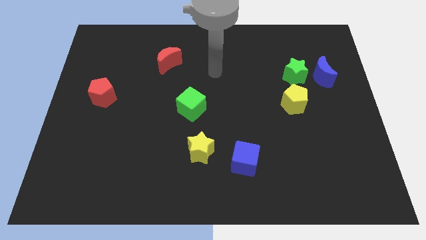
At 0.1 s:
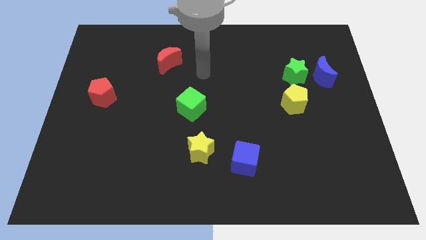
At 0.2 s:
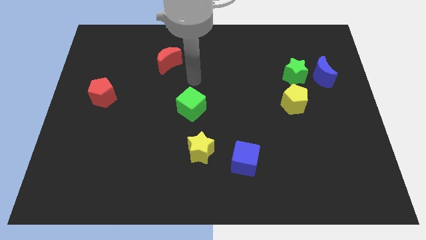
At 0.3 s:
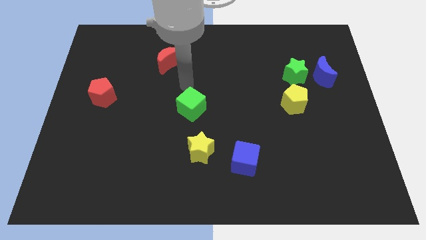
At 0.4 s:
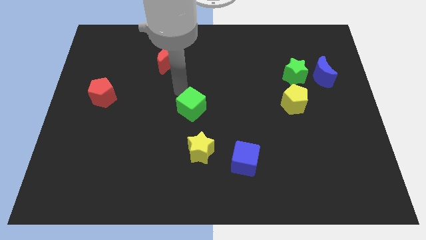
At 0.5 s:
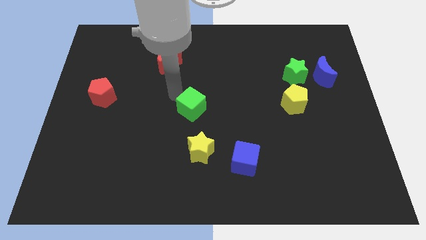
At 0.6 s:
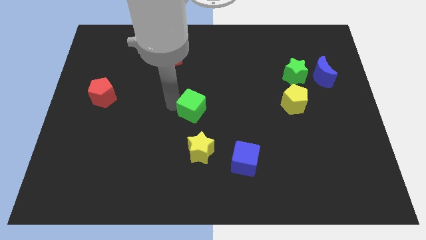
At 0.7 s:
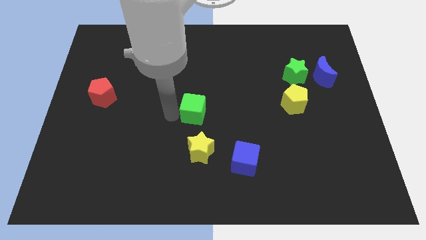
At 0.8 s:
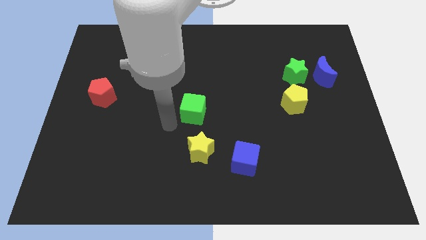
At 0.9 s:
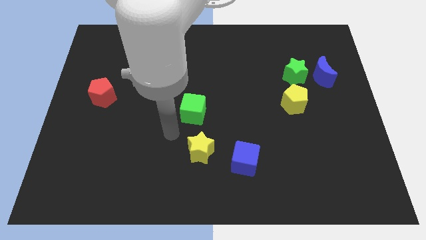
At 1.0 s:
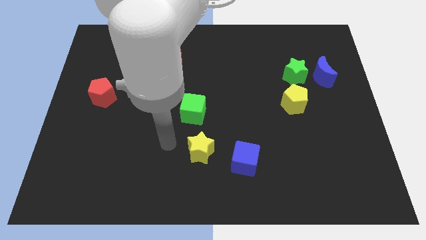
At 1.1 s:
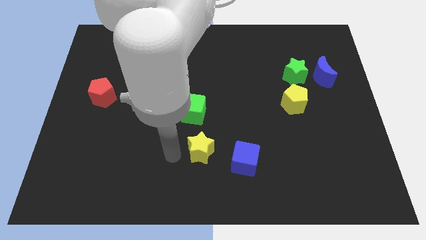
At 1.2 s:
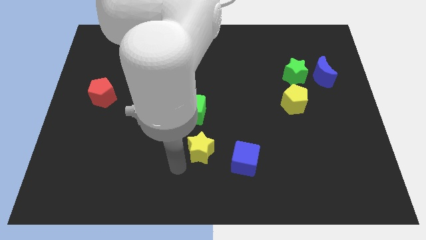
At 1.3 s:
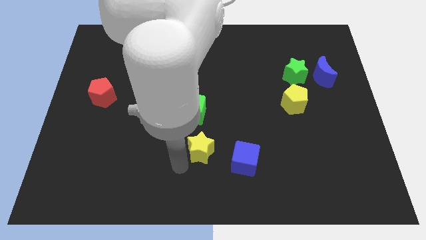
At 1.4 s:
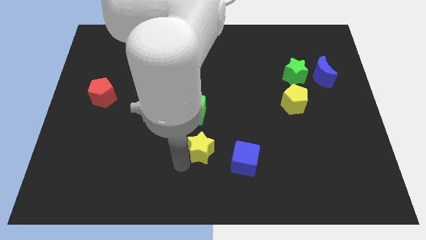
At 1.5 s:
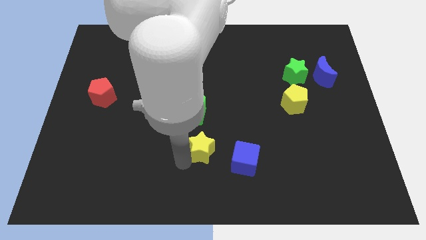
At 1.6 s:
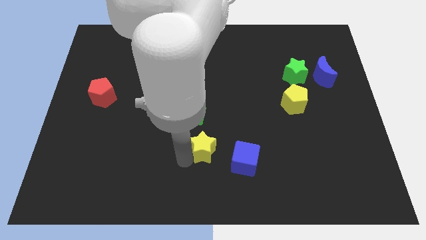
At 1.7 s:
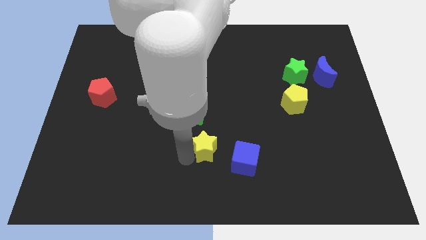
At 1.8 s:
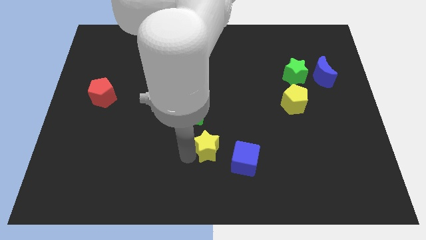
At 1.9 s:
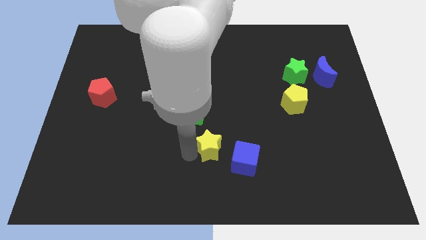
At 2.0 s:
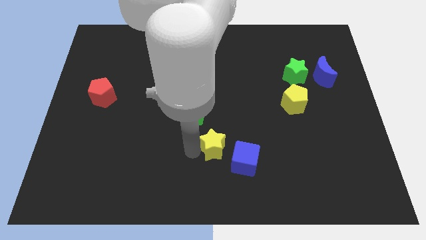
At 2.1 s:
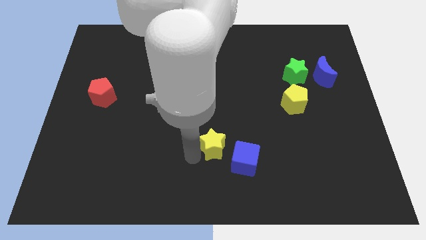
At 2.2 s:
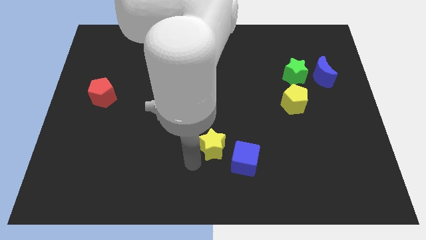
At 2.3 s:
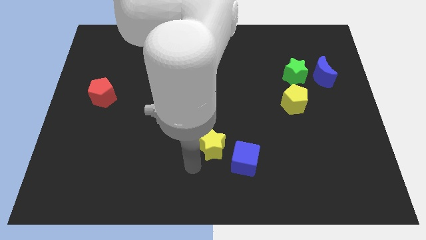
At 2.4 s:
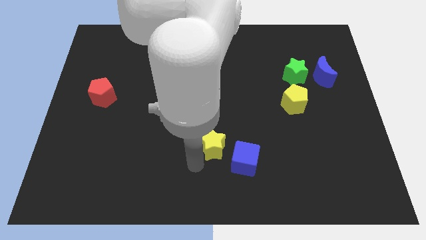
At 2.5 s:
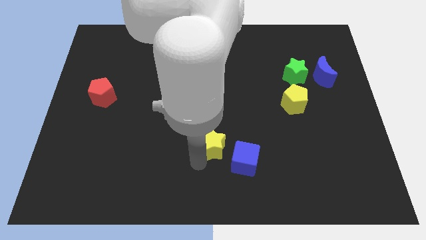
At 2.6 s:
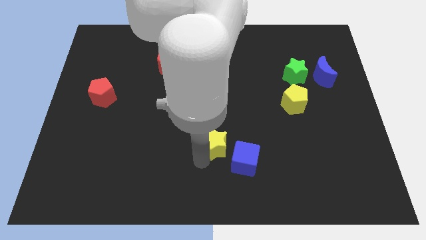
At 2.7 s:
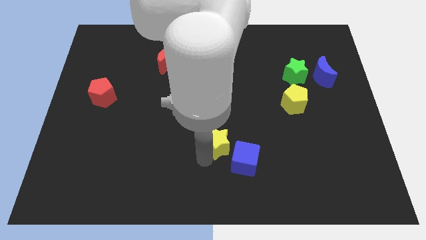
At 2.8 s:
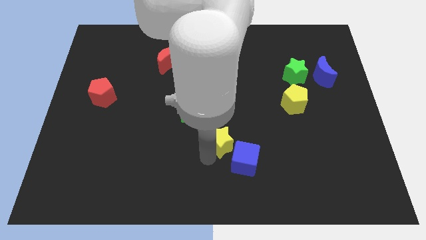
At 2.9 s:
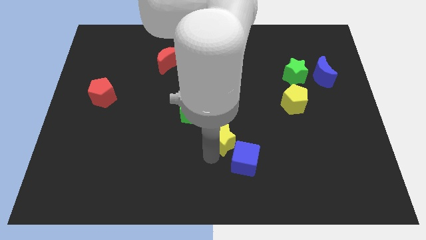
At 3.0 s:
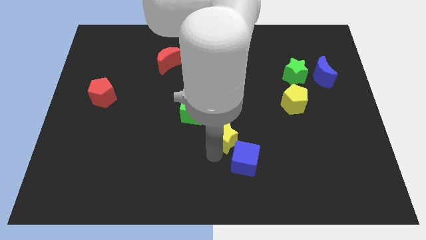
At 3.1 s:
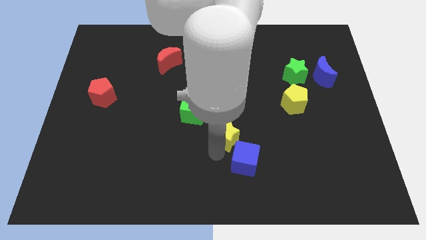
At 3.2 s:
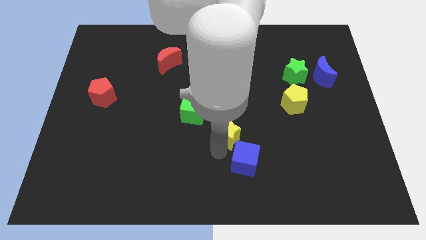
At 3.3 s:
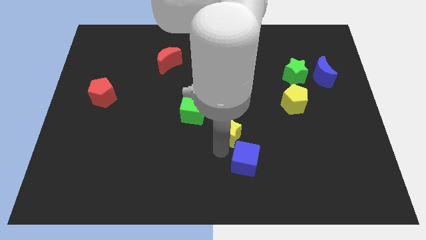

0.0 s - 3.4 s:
push the yellow star somewhat upwards and right

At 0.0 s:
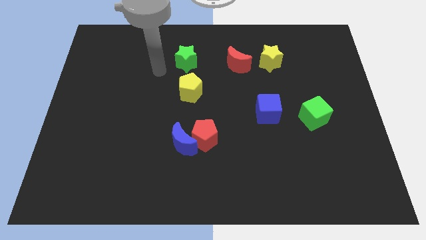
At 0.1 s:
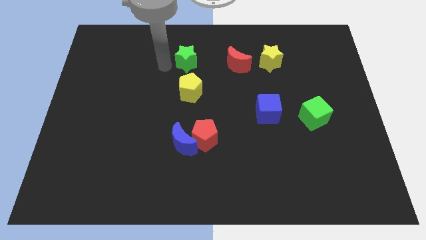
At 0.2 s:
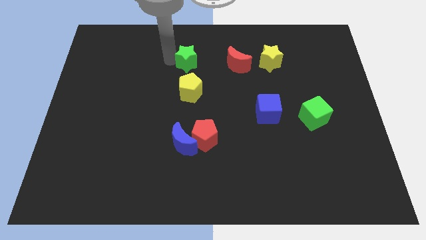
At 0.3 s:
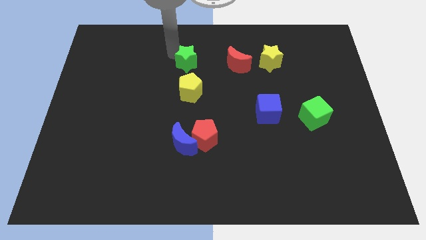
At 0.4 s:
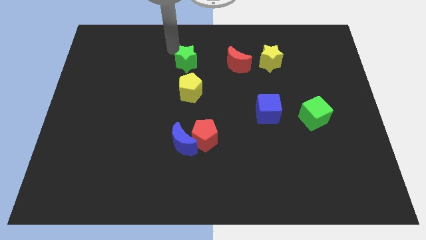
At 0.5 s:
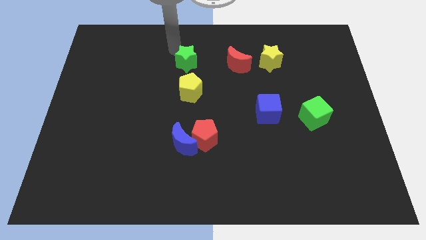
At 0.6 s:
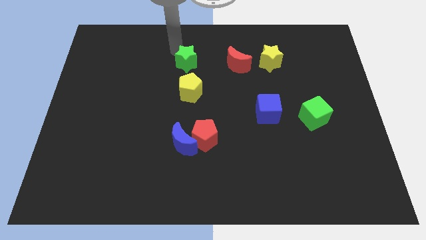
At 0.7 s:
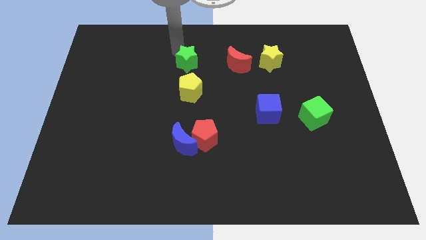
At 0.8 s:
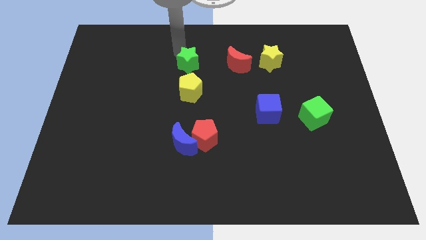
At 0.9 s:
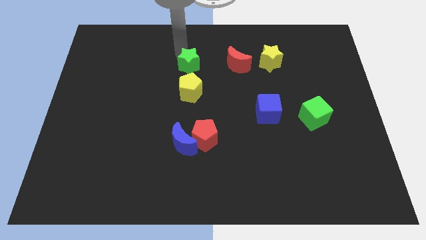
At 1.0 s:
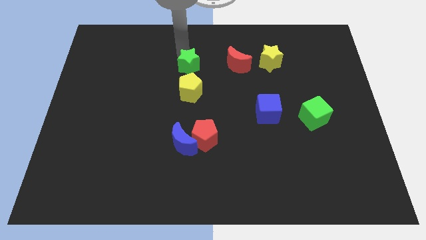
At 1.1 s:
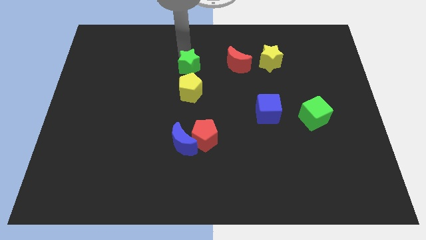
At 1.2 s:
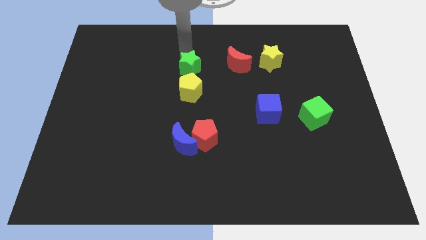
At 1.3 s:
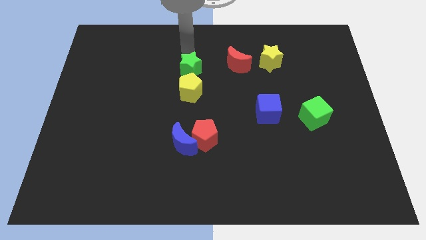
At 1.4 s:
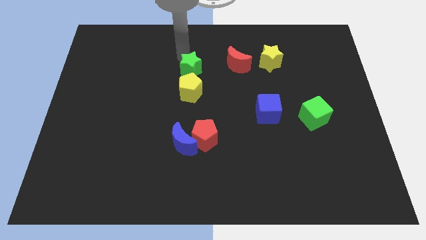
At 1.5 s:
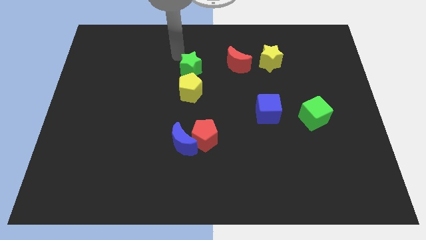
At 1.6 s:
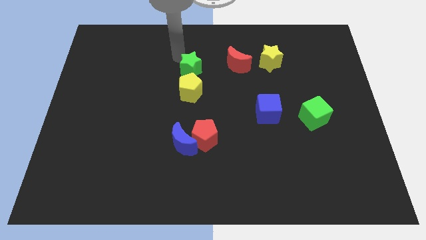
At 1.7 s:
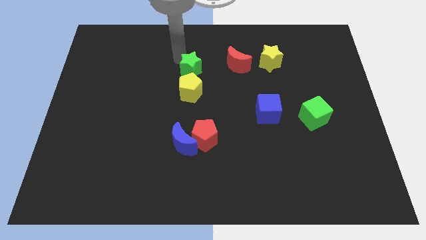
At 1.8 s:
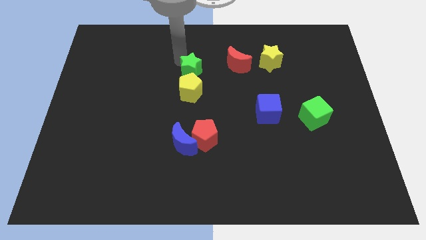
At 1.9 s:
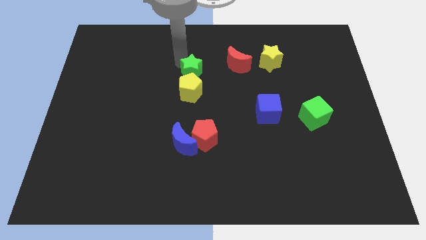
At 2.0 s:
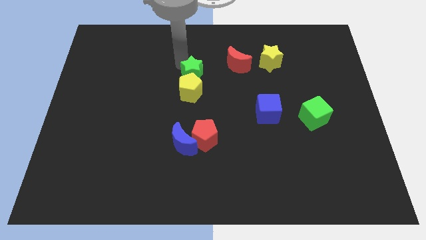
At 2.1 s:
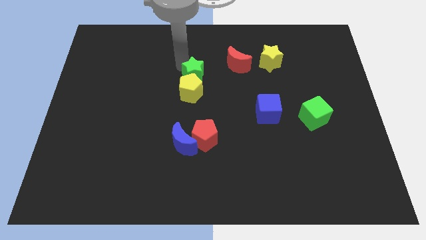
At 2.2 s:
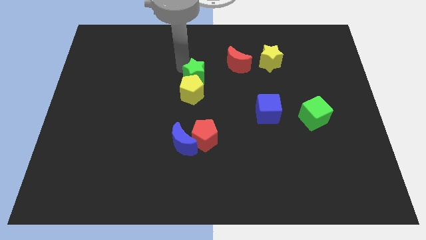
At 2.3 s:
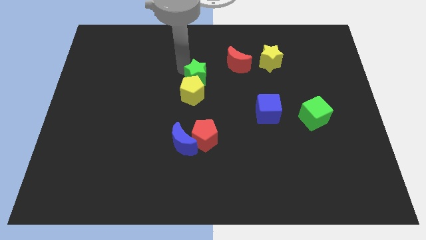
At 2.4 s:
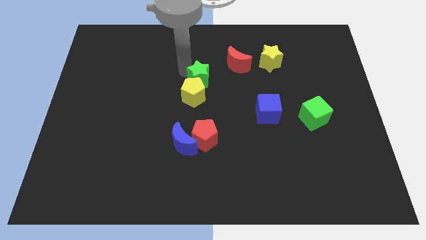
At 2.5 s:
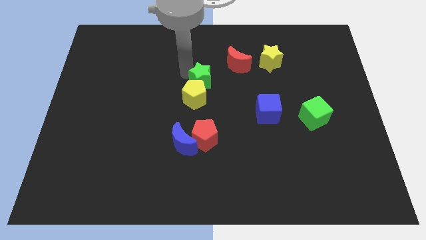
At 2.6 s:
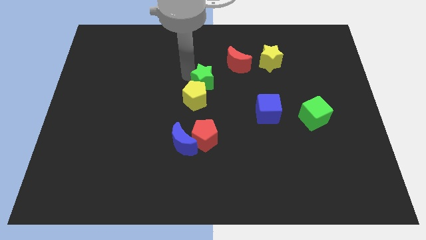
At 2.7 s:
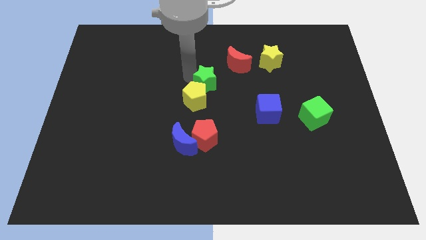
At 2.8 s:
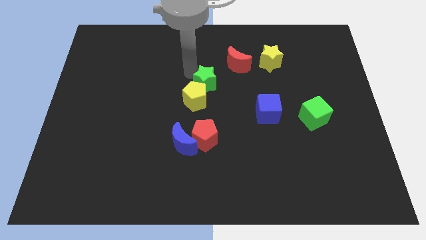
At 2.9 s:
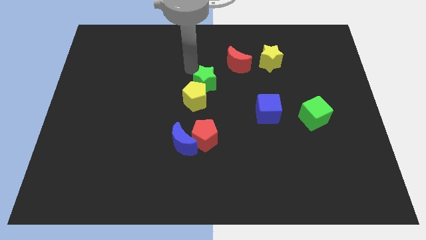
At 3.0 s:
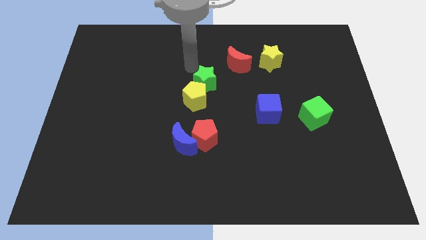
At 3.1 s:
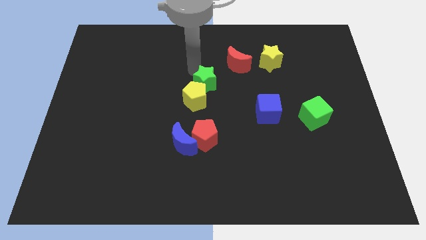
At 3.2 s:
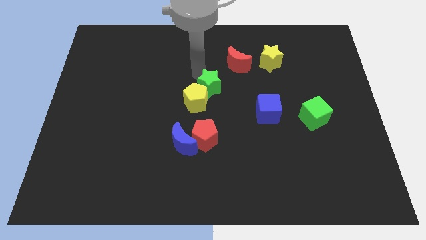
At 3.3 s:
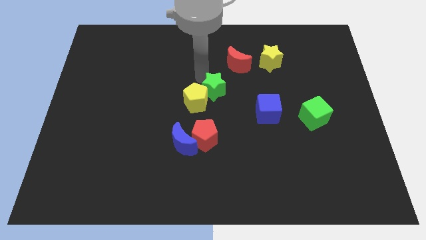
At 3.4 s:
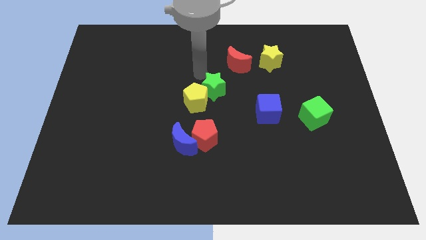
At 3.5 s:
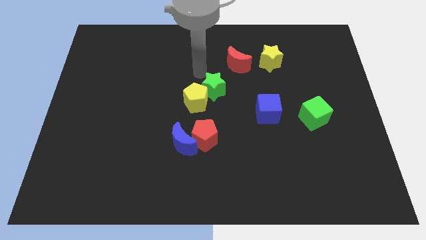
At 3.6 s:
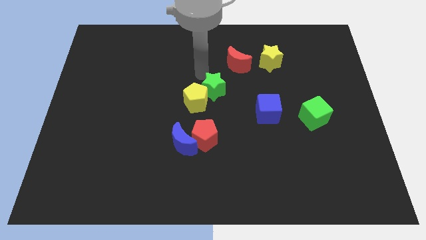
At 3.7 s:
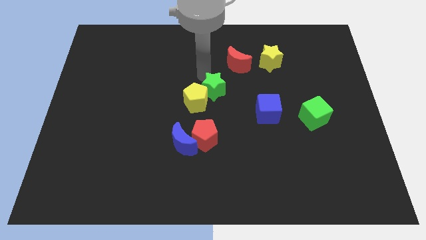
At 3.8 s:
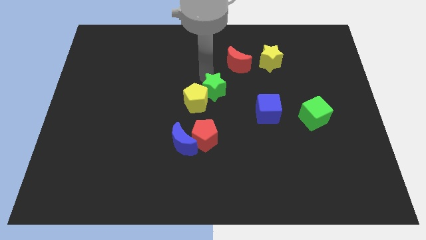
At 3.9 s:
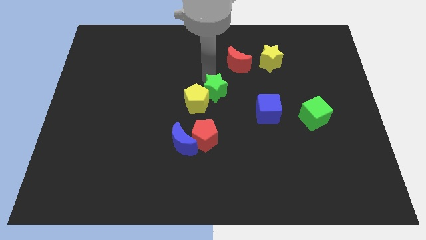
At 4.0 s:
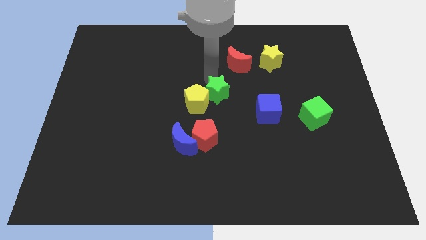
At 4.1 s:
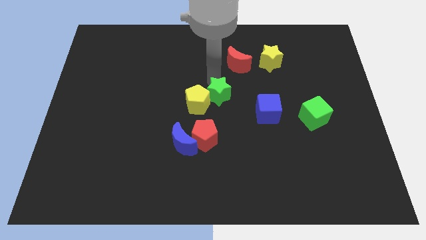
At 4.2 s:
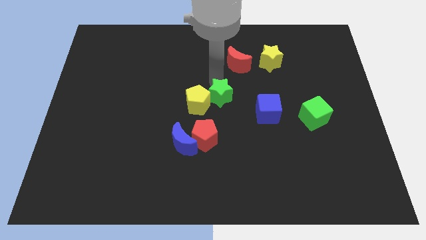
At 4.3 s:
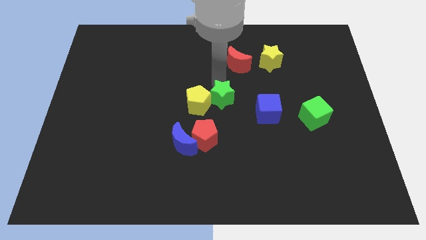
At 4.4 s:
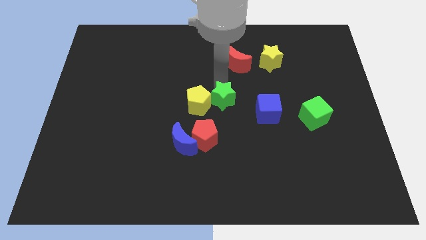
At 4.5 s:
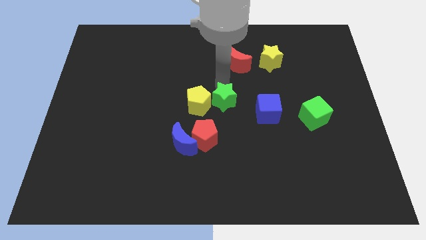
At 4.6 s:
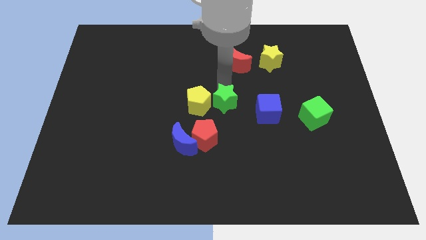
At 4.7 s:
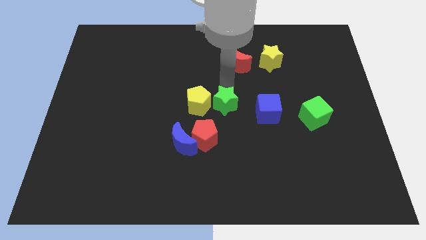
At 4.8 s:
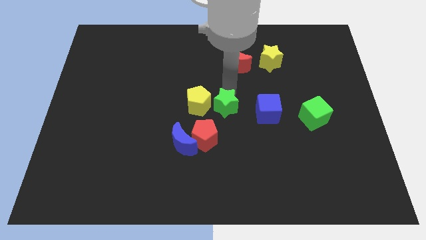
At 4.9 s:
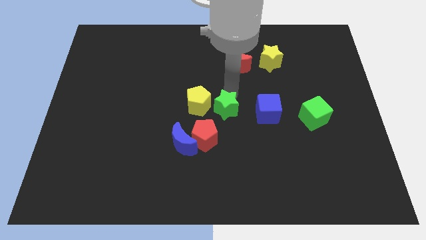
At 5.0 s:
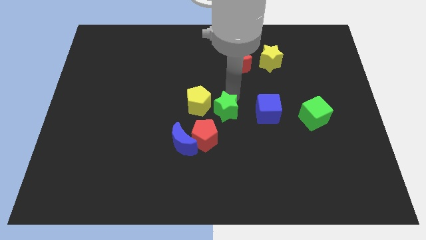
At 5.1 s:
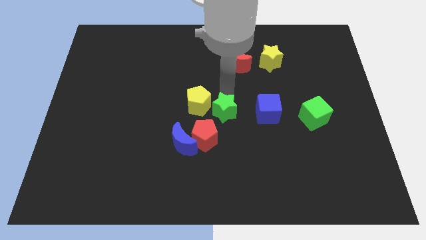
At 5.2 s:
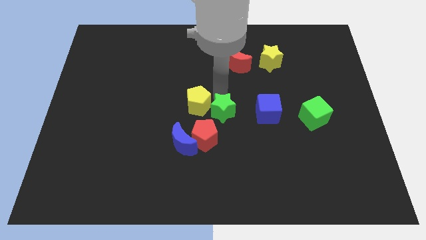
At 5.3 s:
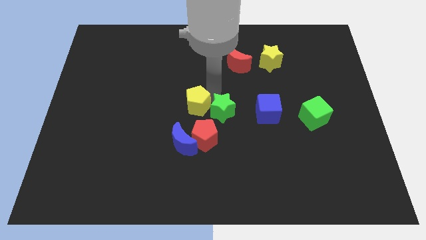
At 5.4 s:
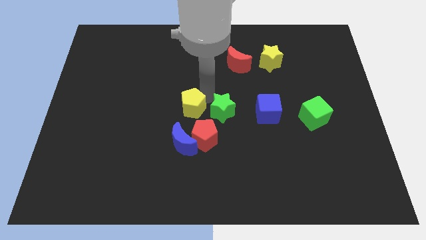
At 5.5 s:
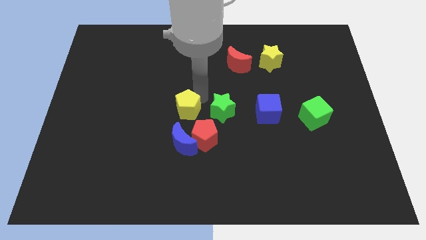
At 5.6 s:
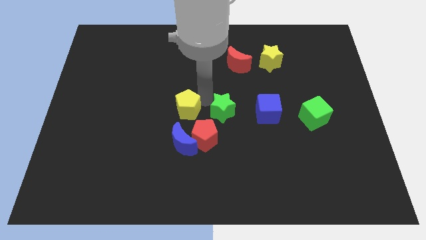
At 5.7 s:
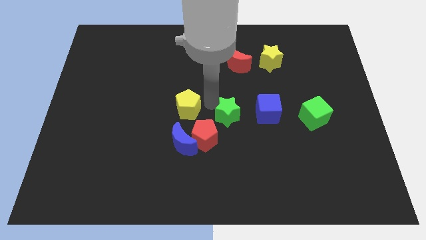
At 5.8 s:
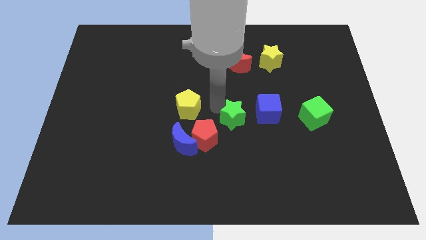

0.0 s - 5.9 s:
move the green star down and to the right
